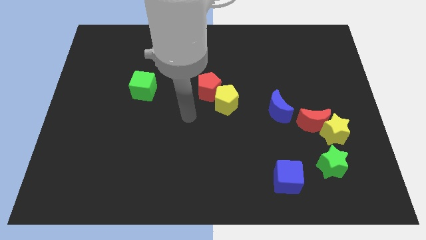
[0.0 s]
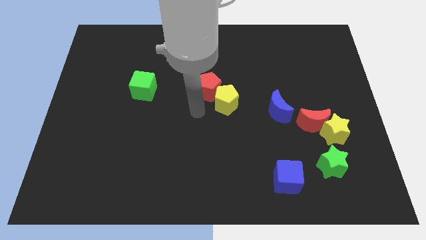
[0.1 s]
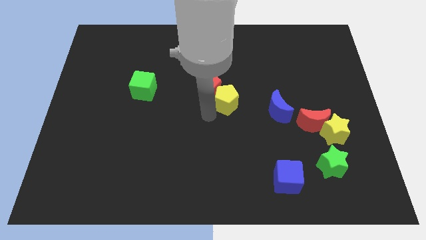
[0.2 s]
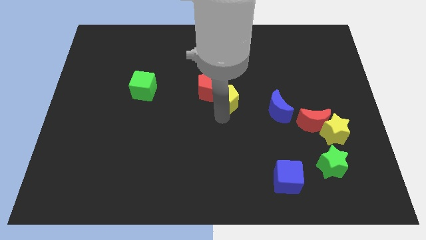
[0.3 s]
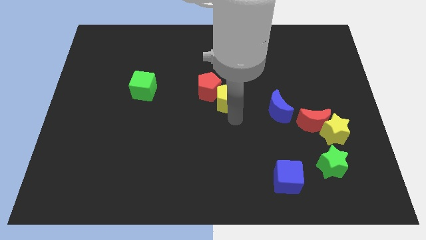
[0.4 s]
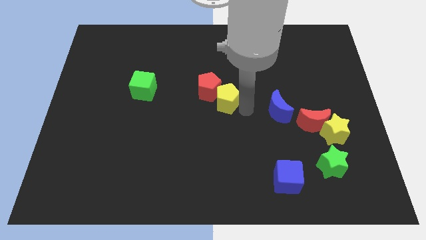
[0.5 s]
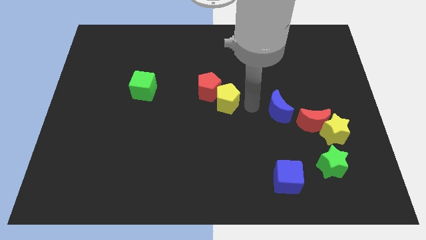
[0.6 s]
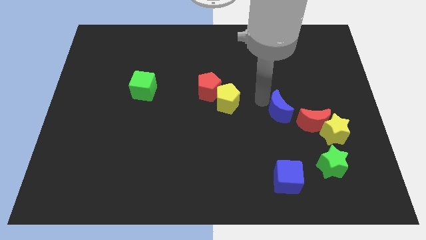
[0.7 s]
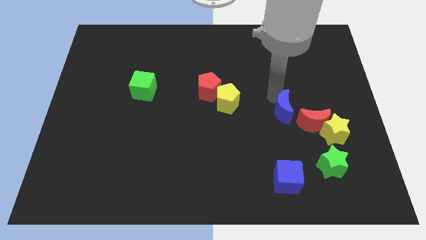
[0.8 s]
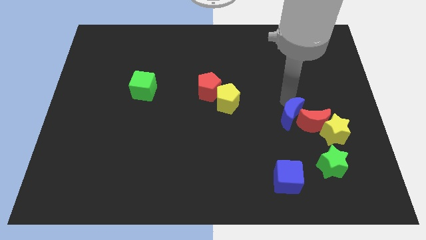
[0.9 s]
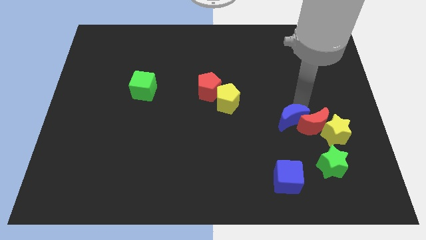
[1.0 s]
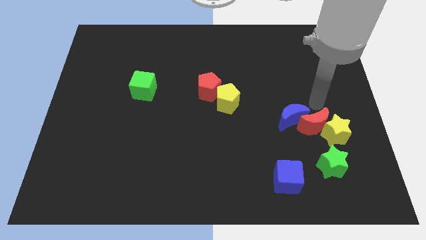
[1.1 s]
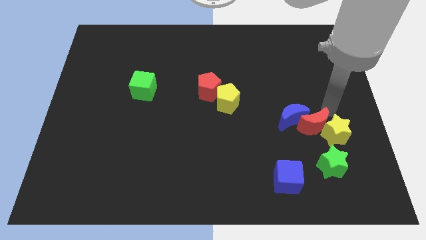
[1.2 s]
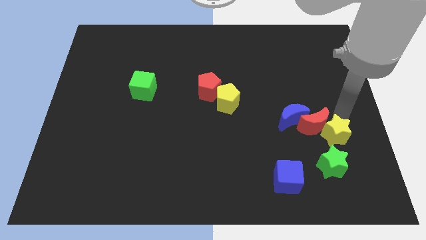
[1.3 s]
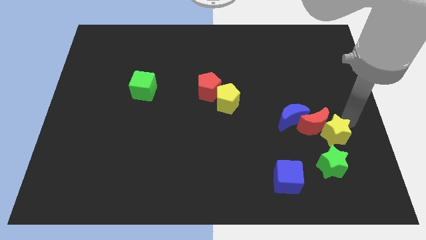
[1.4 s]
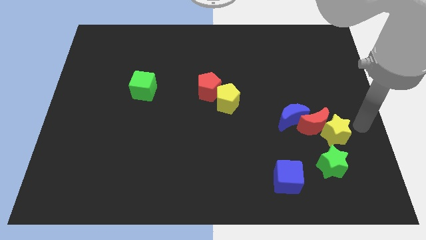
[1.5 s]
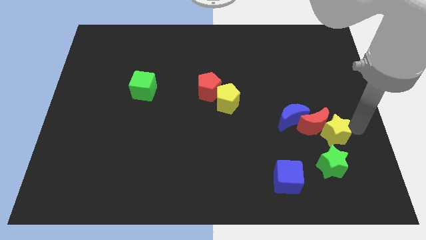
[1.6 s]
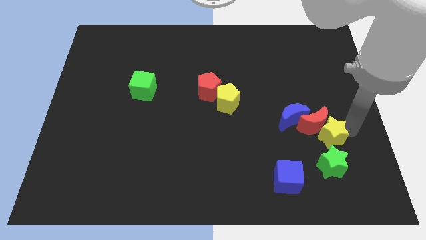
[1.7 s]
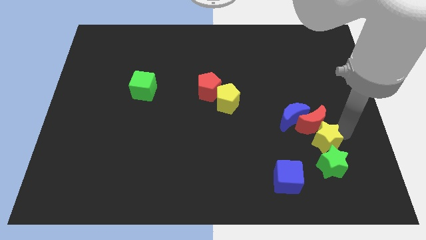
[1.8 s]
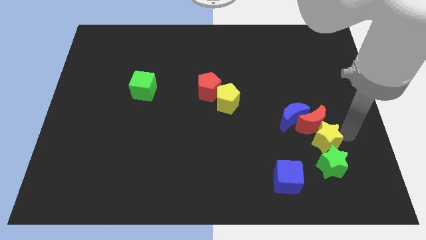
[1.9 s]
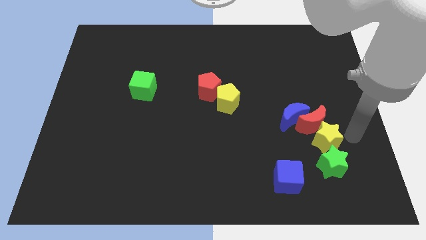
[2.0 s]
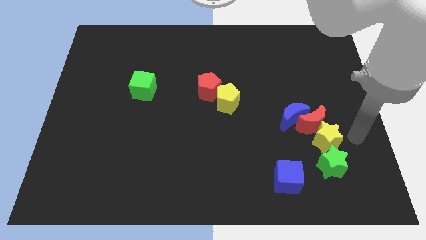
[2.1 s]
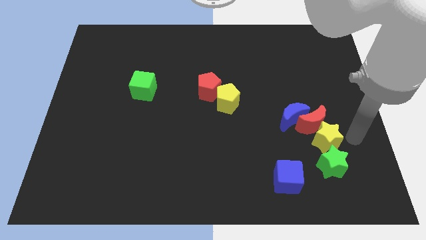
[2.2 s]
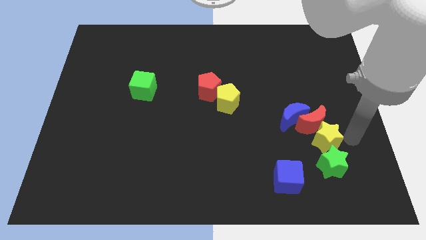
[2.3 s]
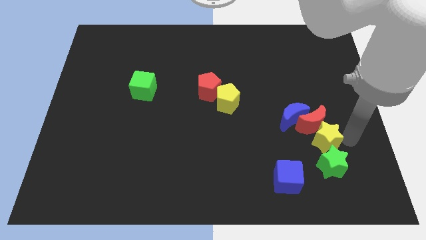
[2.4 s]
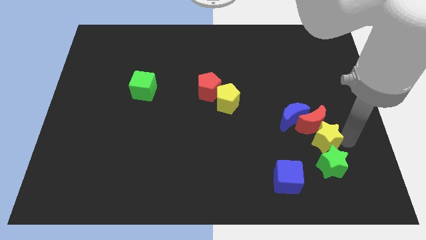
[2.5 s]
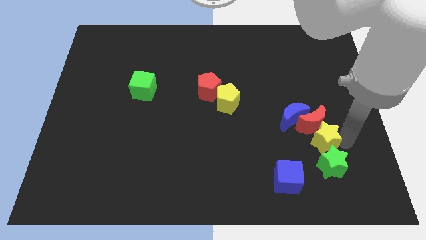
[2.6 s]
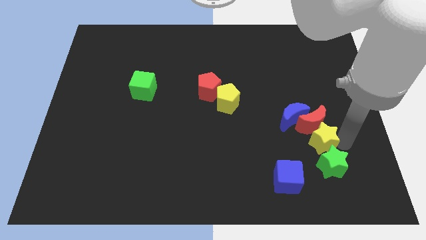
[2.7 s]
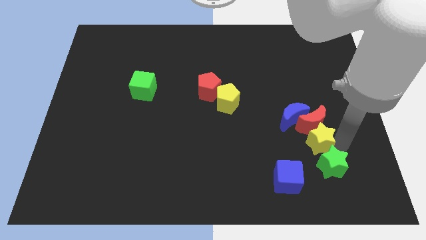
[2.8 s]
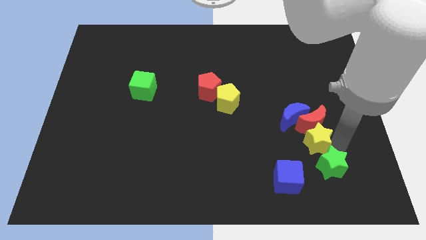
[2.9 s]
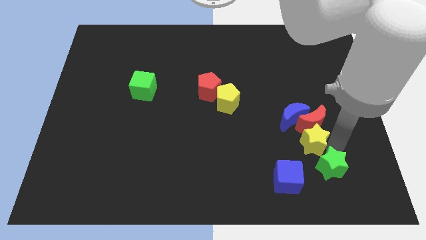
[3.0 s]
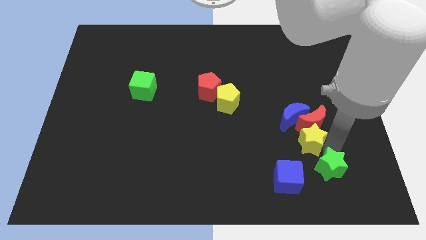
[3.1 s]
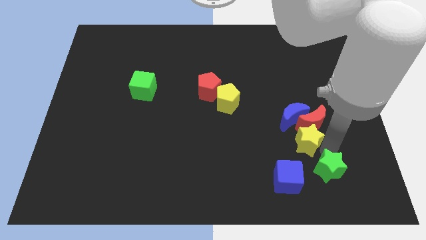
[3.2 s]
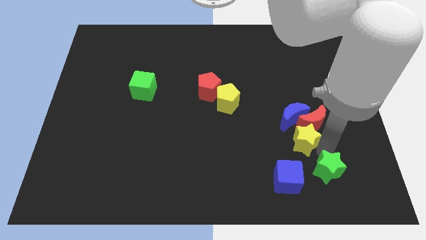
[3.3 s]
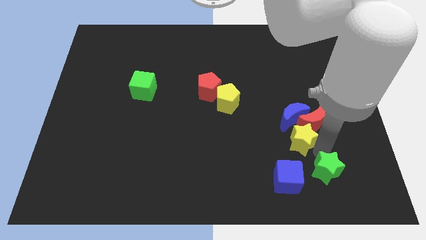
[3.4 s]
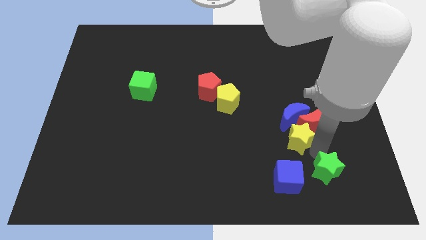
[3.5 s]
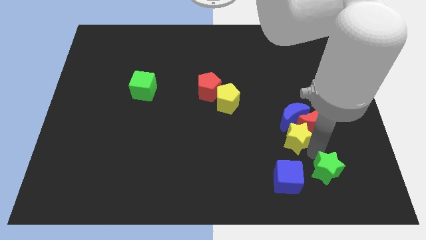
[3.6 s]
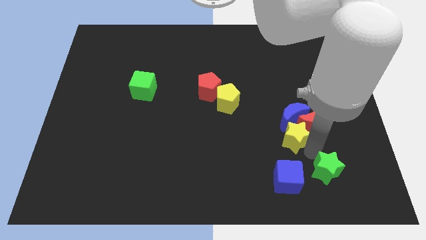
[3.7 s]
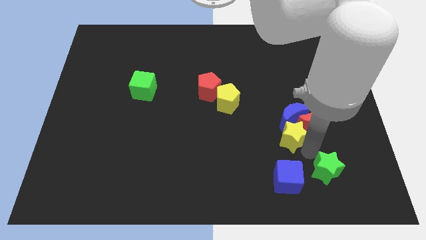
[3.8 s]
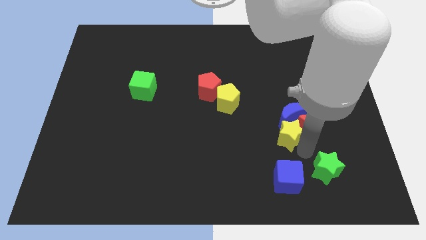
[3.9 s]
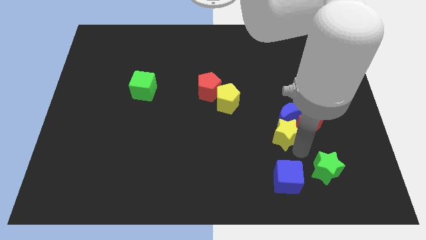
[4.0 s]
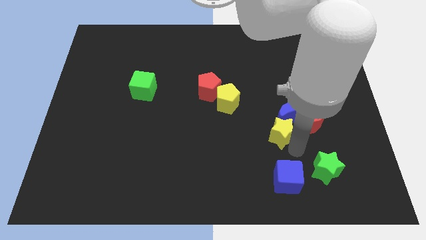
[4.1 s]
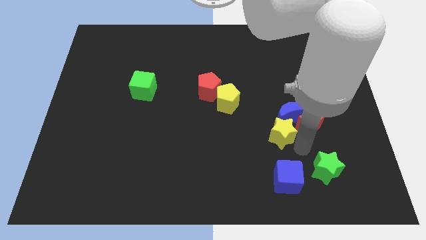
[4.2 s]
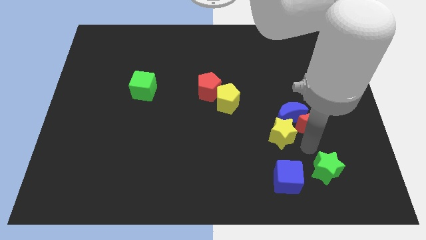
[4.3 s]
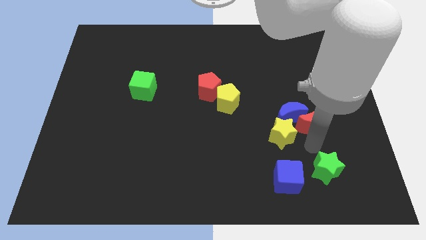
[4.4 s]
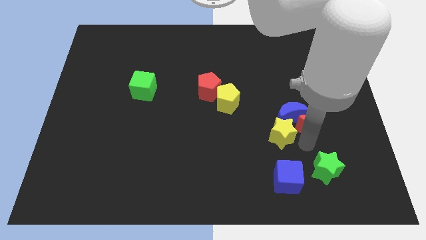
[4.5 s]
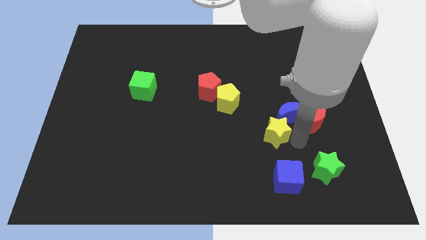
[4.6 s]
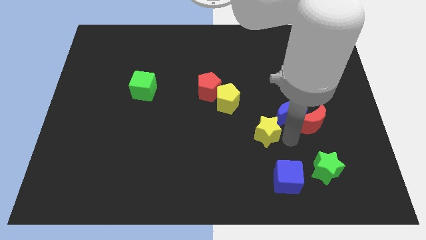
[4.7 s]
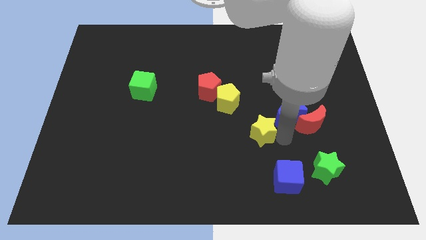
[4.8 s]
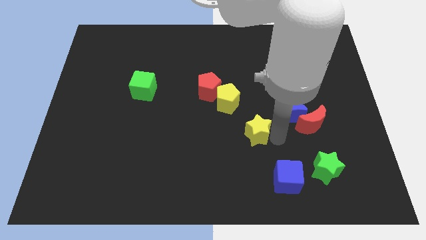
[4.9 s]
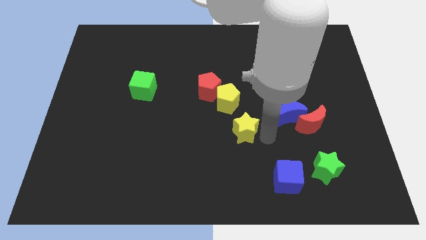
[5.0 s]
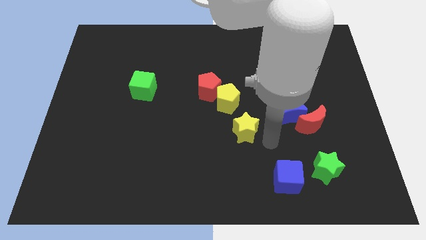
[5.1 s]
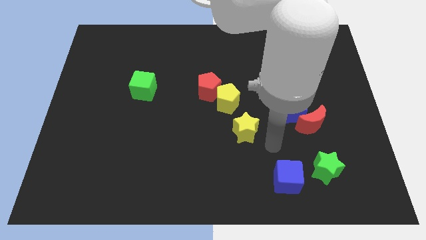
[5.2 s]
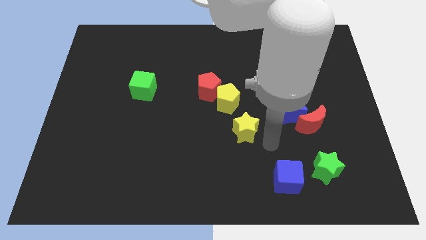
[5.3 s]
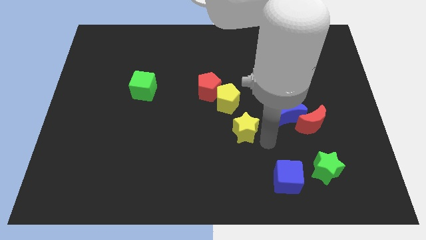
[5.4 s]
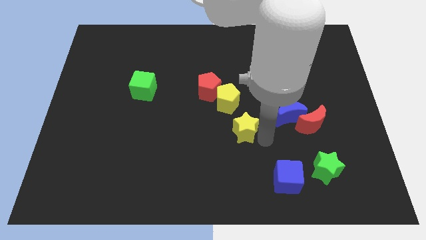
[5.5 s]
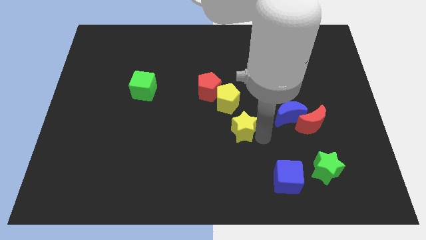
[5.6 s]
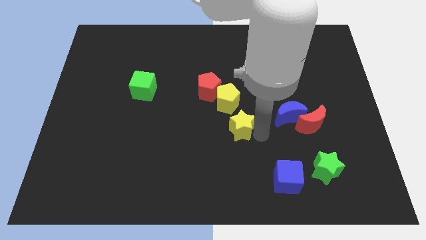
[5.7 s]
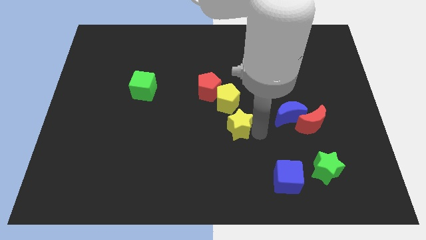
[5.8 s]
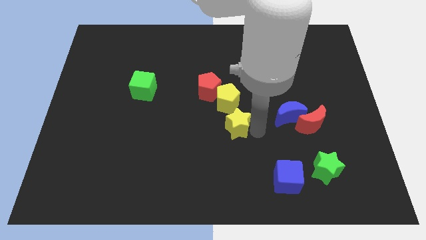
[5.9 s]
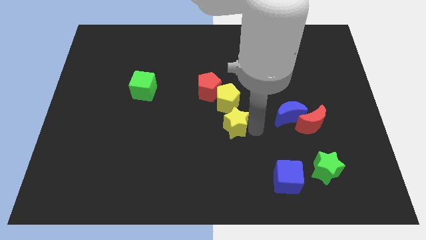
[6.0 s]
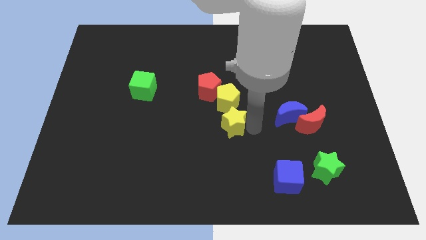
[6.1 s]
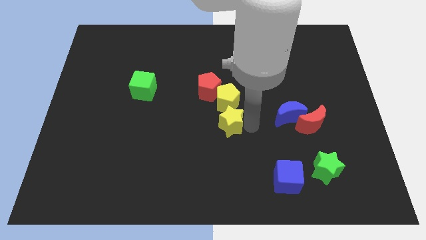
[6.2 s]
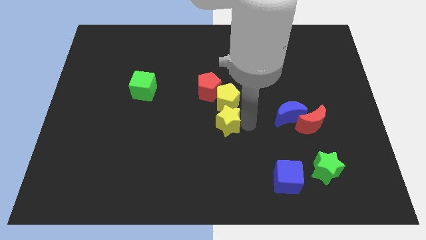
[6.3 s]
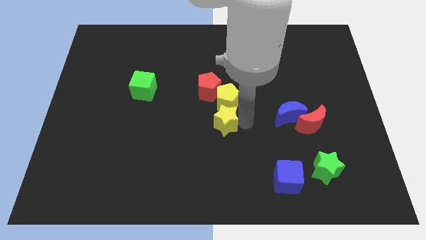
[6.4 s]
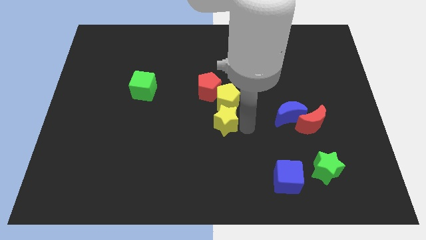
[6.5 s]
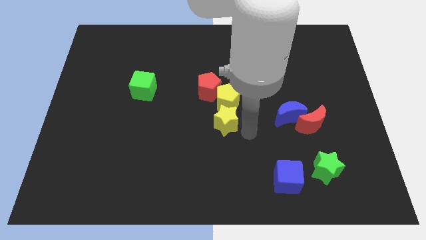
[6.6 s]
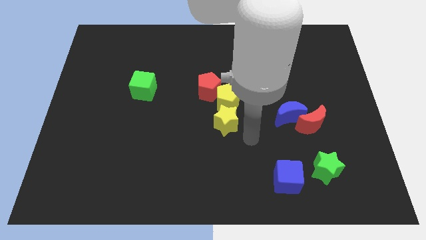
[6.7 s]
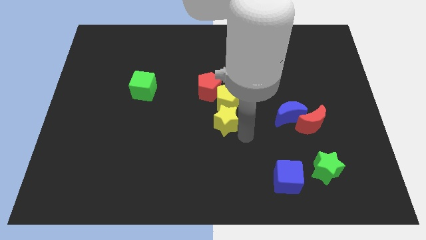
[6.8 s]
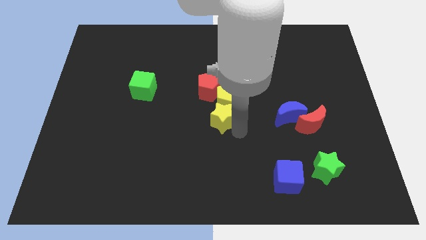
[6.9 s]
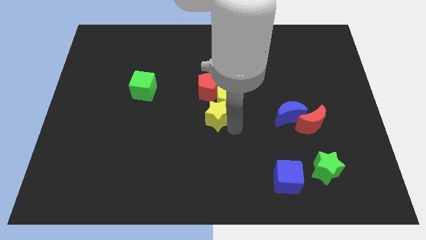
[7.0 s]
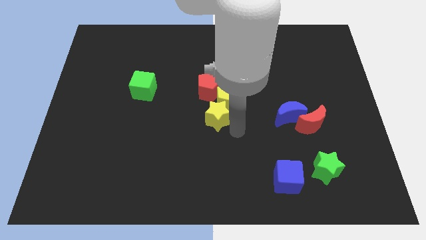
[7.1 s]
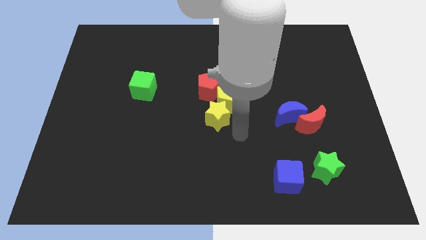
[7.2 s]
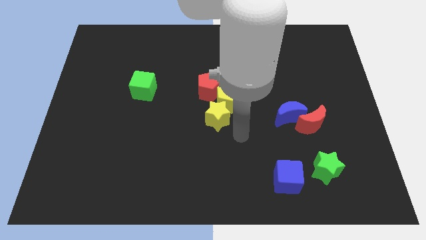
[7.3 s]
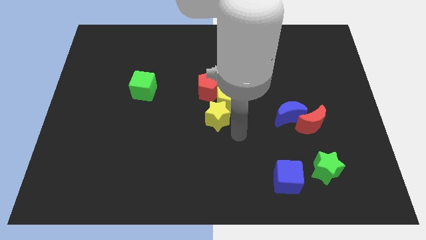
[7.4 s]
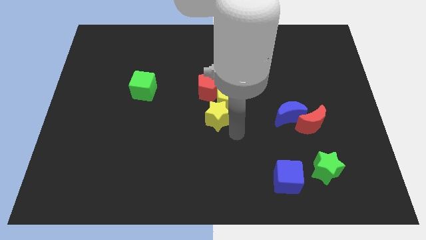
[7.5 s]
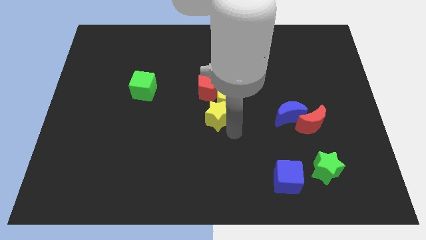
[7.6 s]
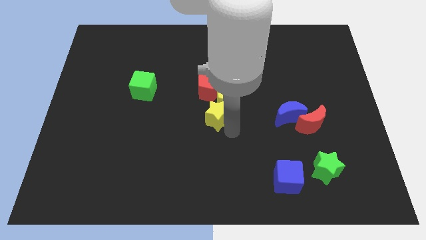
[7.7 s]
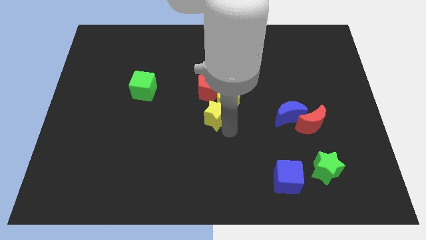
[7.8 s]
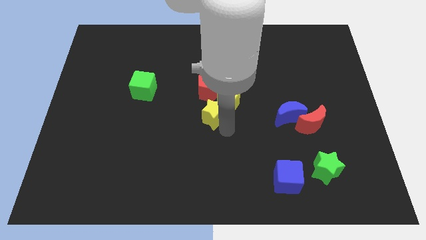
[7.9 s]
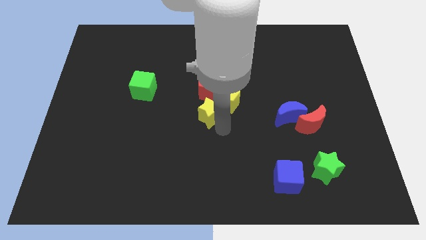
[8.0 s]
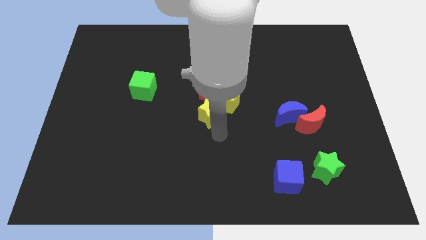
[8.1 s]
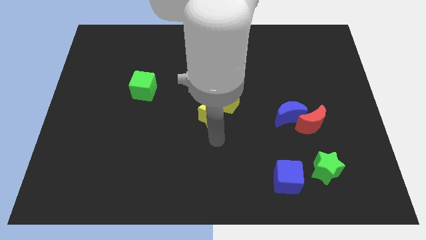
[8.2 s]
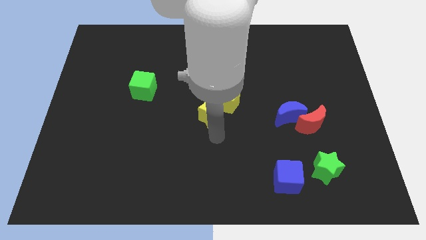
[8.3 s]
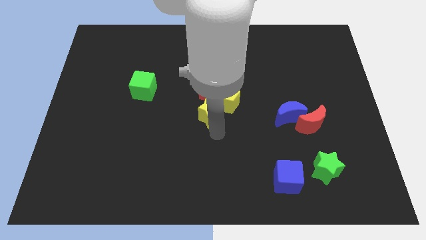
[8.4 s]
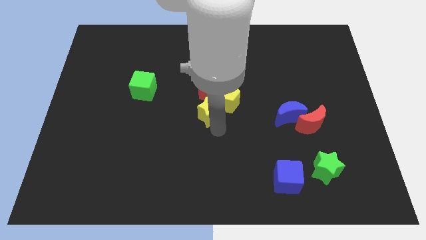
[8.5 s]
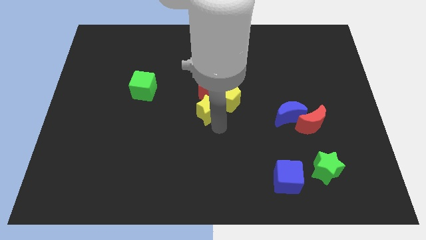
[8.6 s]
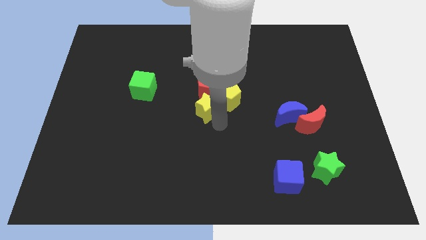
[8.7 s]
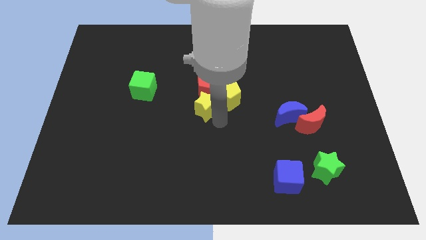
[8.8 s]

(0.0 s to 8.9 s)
move the yellow star to the red pentagon
